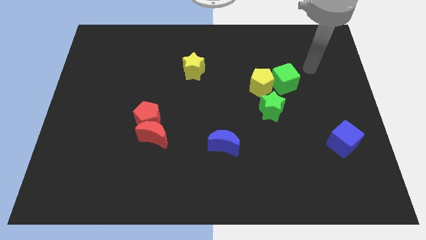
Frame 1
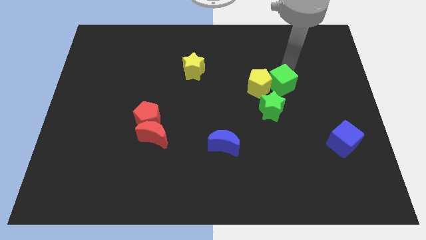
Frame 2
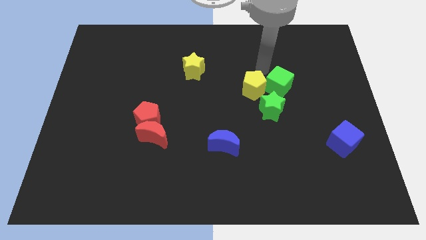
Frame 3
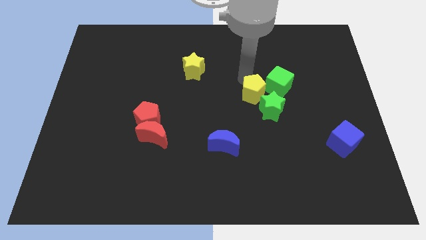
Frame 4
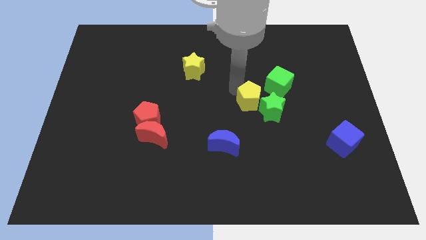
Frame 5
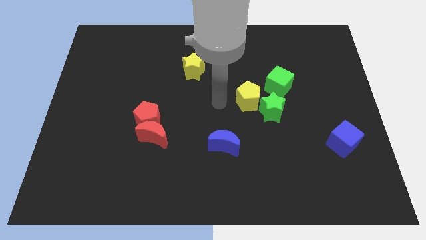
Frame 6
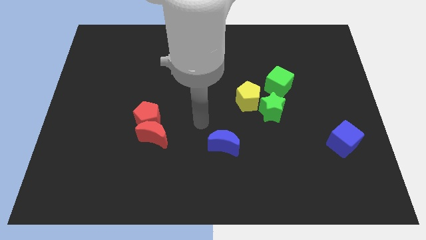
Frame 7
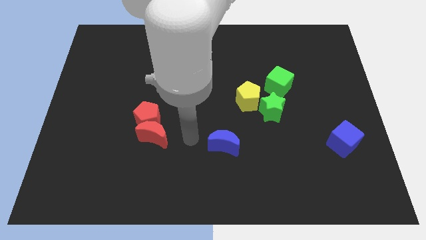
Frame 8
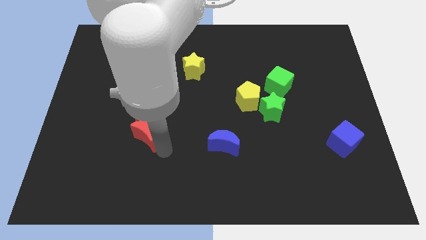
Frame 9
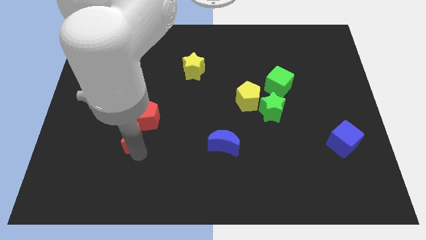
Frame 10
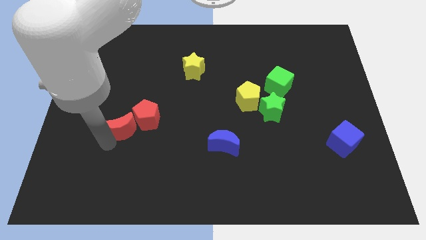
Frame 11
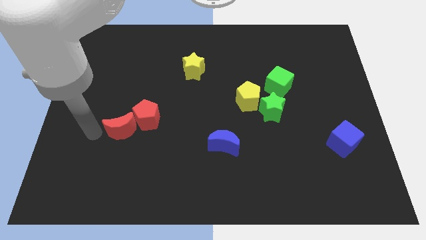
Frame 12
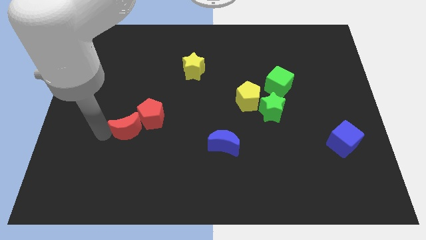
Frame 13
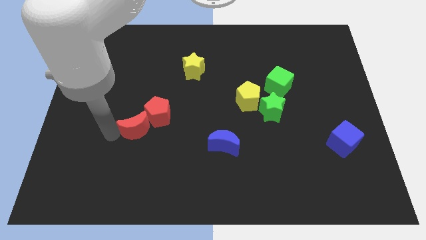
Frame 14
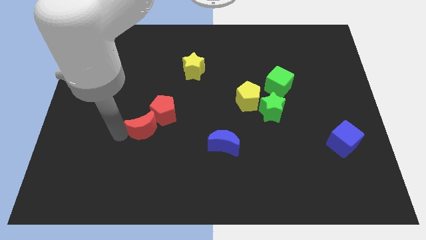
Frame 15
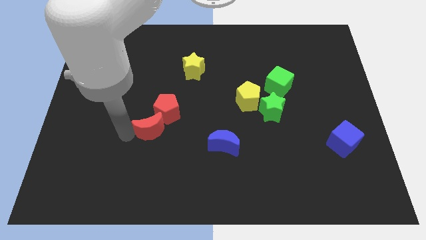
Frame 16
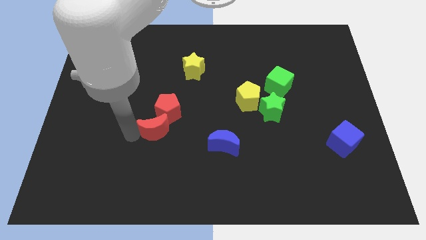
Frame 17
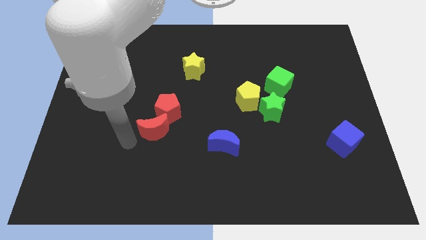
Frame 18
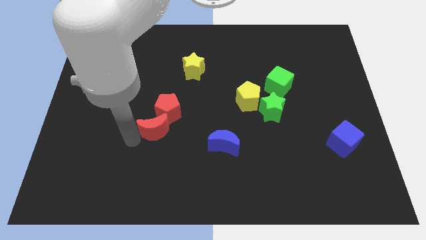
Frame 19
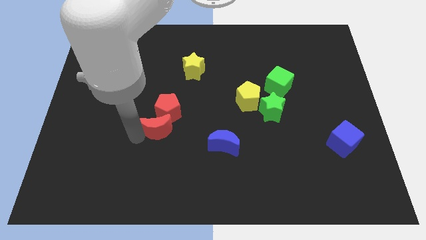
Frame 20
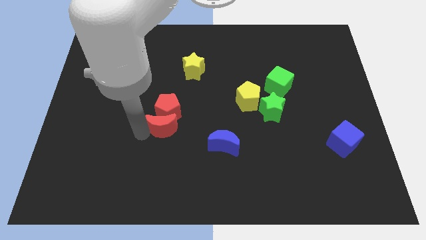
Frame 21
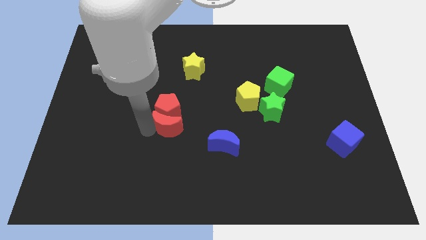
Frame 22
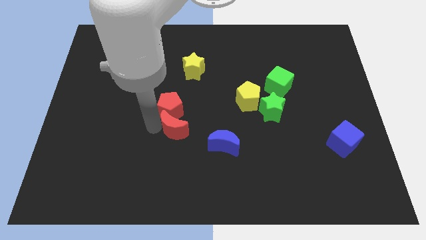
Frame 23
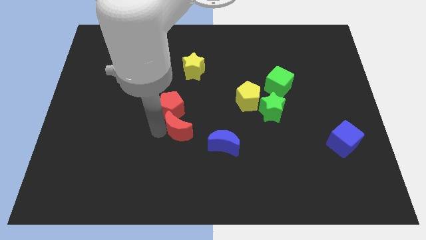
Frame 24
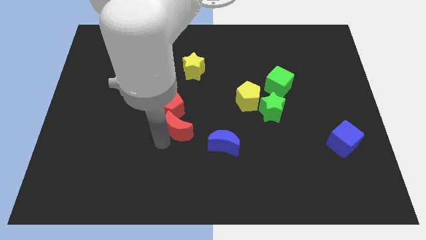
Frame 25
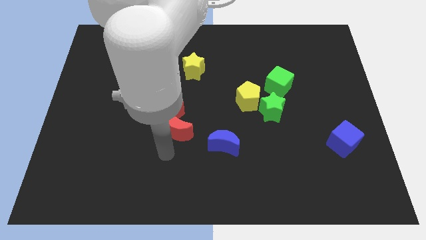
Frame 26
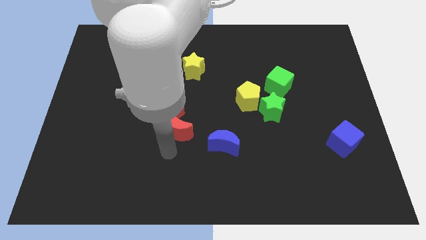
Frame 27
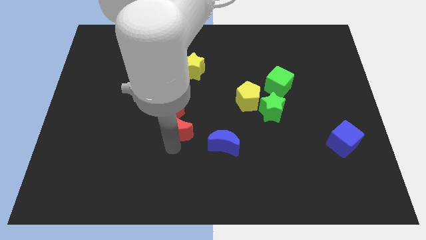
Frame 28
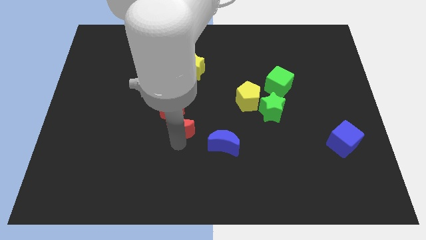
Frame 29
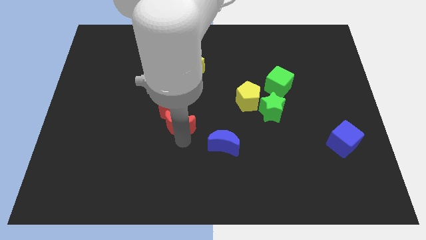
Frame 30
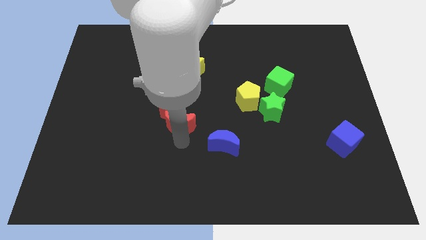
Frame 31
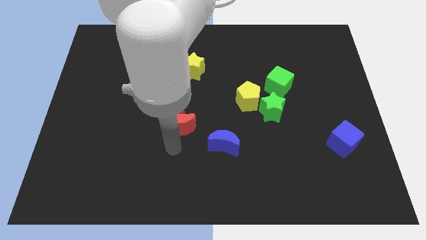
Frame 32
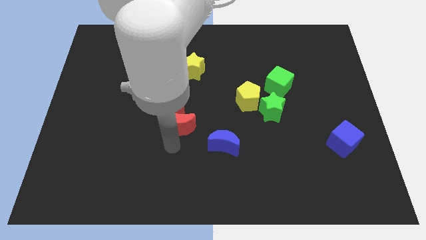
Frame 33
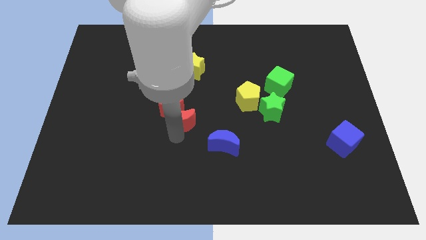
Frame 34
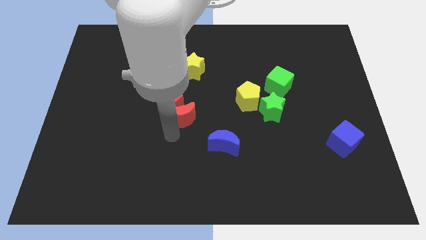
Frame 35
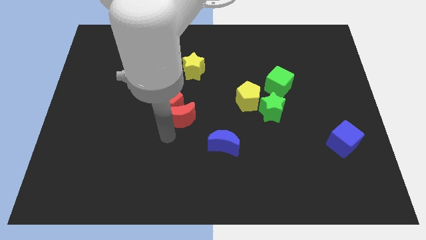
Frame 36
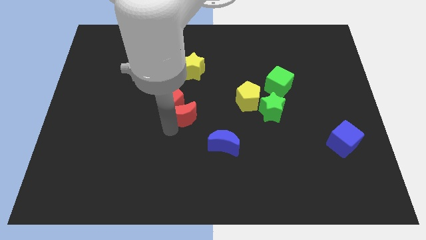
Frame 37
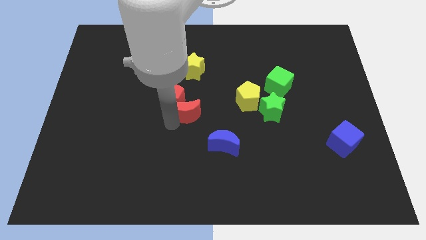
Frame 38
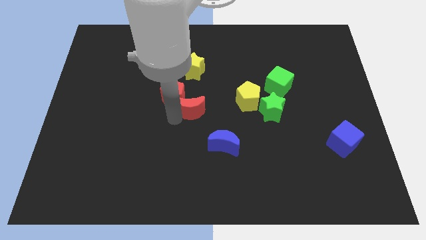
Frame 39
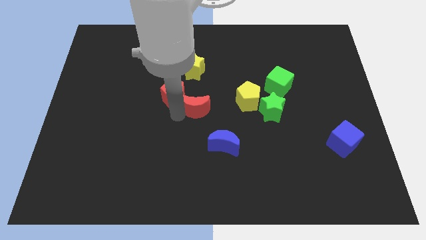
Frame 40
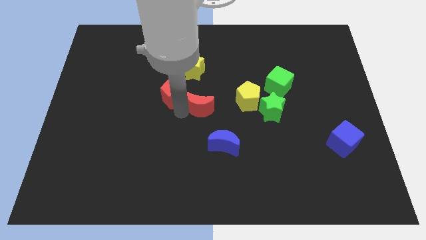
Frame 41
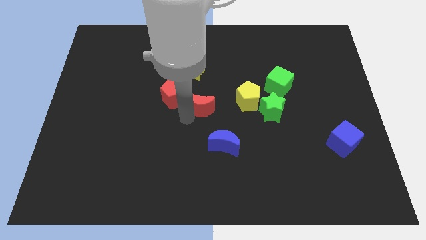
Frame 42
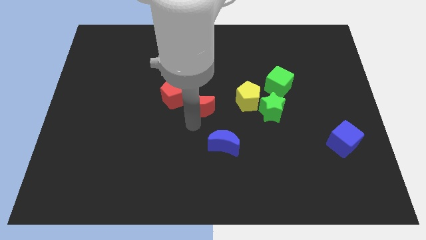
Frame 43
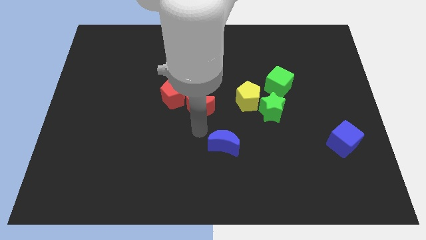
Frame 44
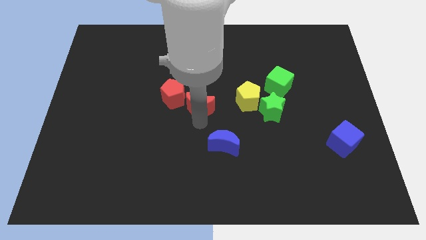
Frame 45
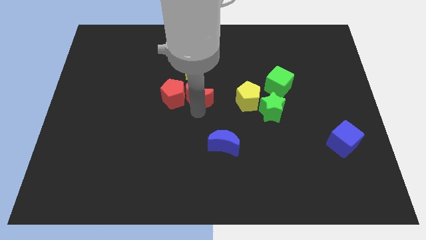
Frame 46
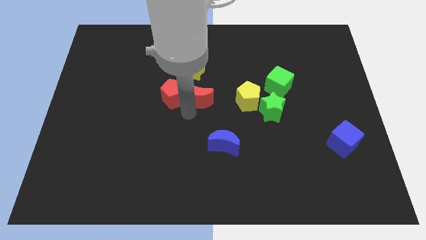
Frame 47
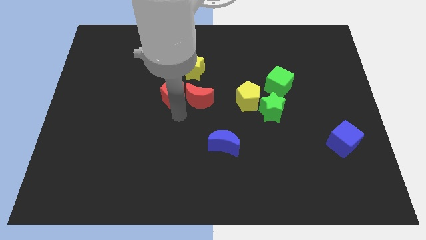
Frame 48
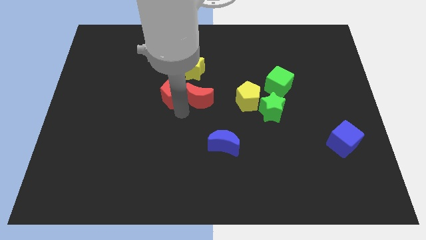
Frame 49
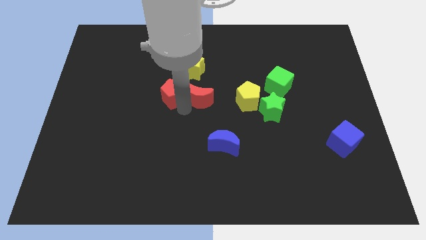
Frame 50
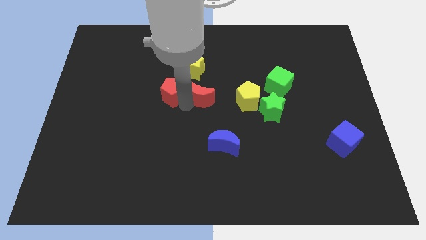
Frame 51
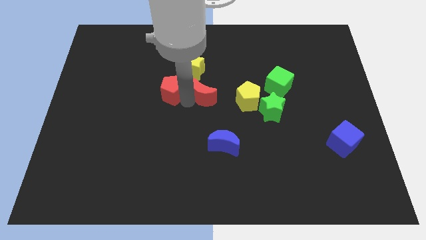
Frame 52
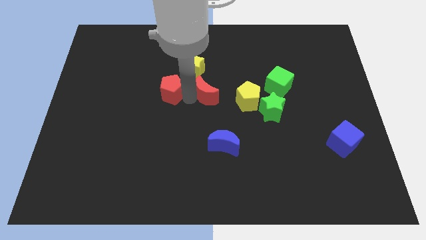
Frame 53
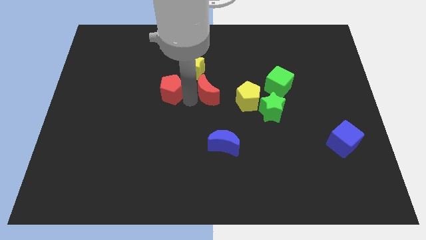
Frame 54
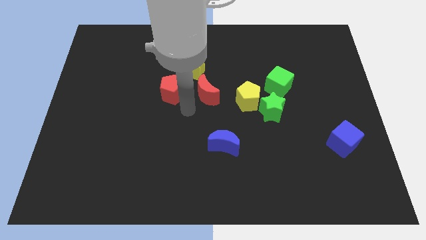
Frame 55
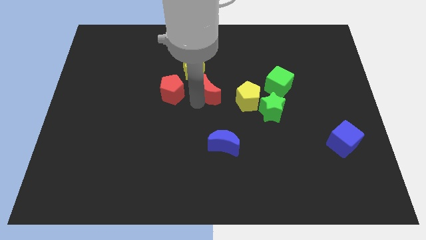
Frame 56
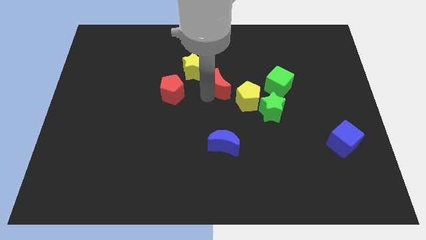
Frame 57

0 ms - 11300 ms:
slide the red moon upwards and right diagonally

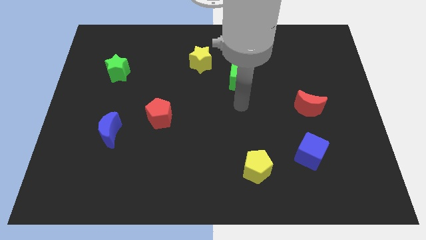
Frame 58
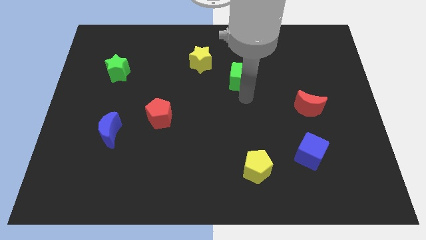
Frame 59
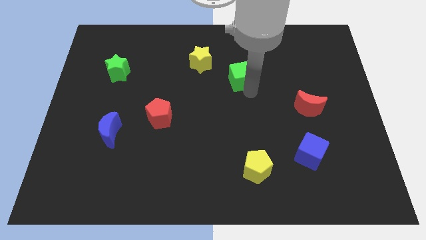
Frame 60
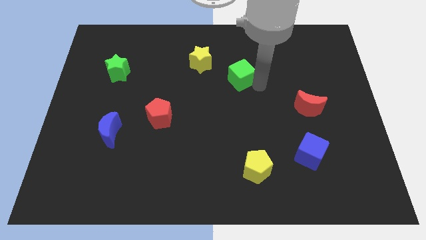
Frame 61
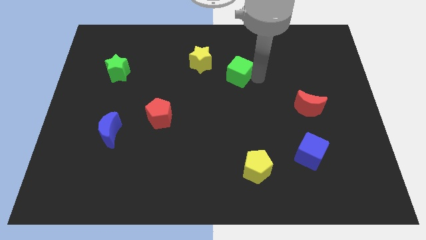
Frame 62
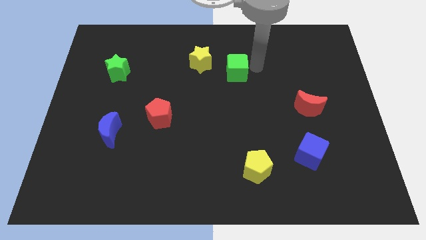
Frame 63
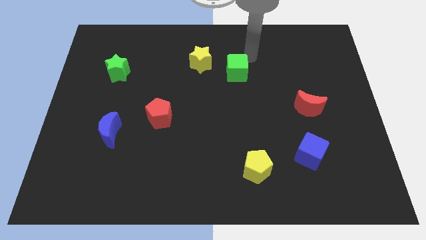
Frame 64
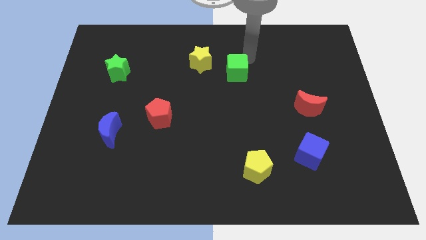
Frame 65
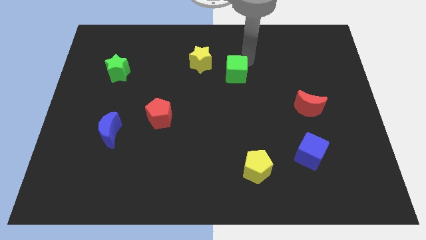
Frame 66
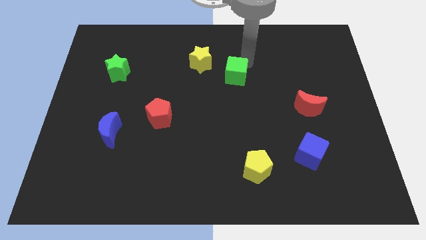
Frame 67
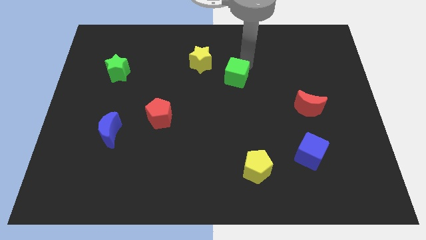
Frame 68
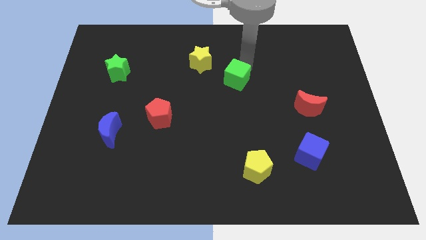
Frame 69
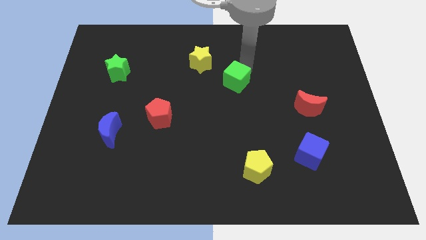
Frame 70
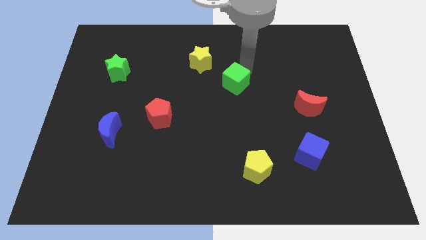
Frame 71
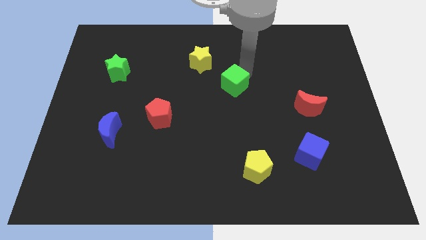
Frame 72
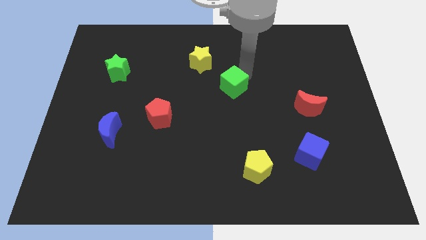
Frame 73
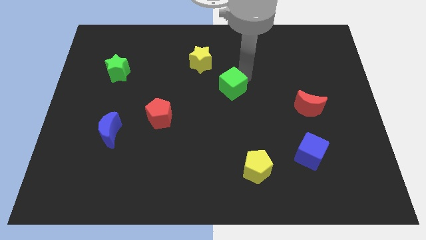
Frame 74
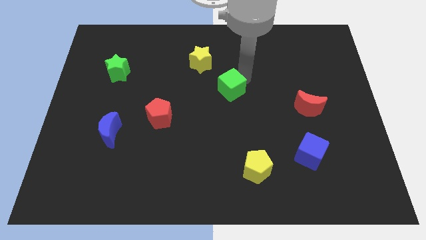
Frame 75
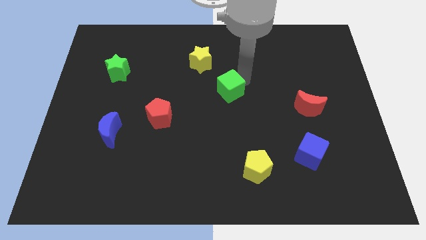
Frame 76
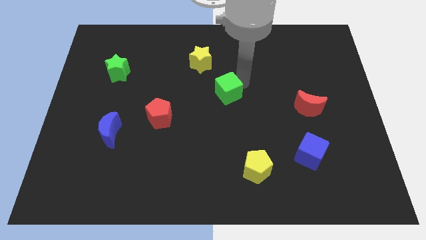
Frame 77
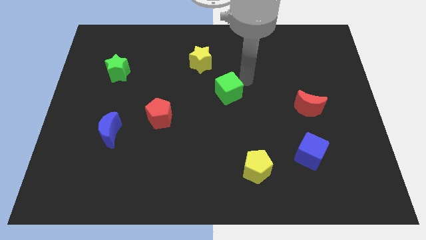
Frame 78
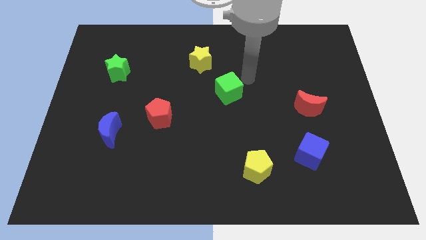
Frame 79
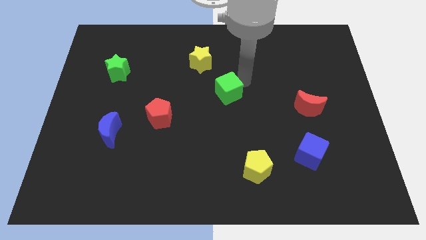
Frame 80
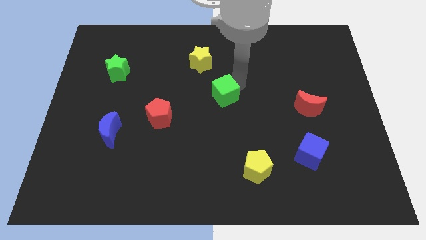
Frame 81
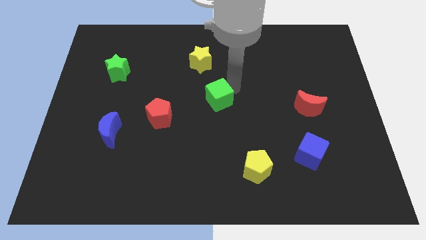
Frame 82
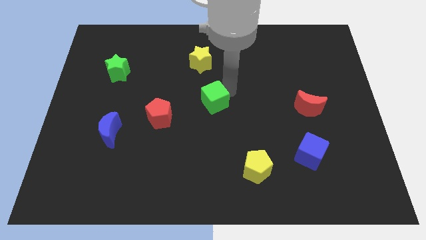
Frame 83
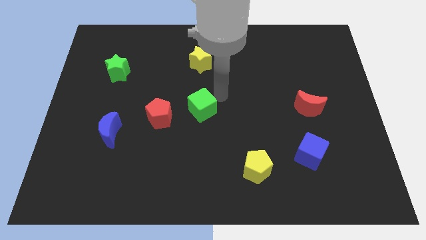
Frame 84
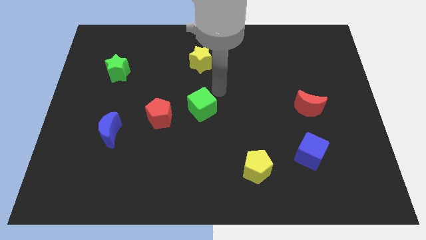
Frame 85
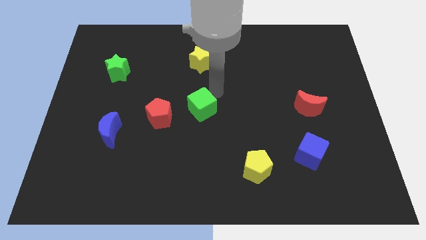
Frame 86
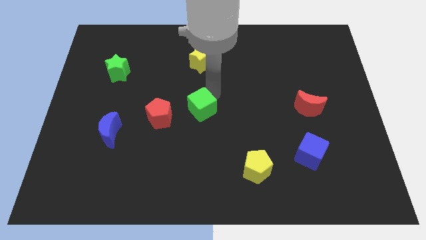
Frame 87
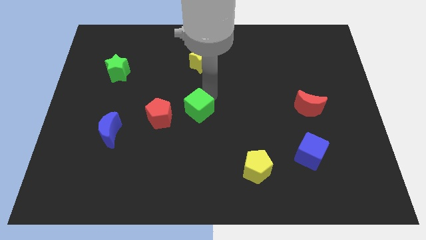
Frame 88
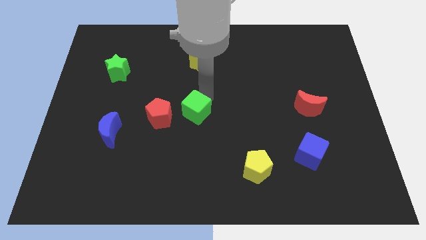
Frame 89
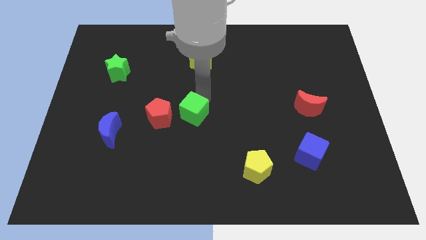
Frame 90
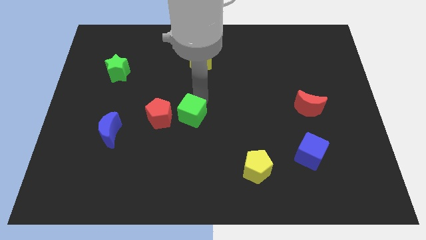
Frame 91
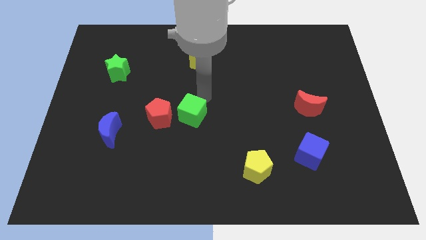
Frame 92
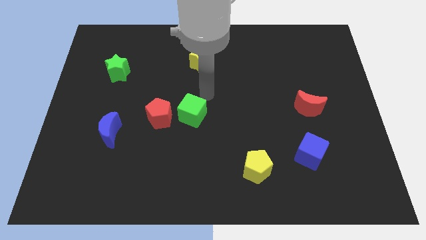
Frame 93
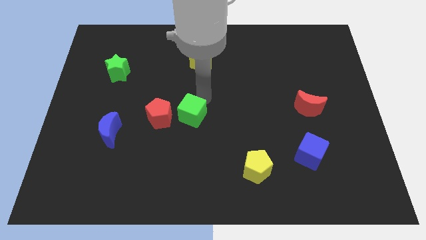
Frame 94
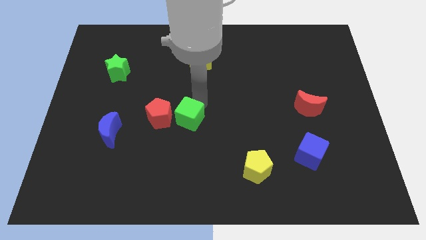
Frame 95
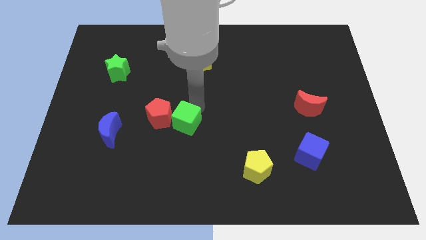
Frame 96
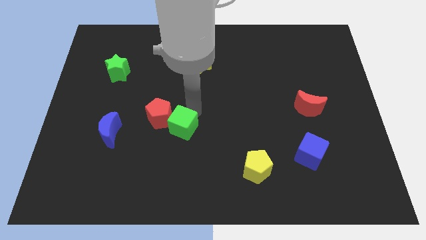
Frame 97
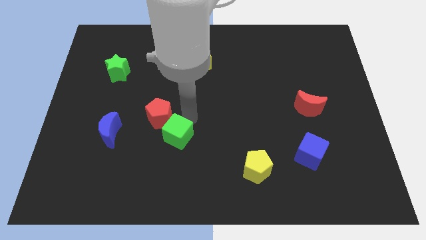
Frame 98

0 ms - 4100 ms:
slide the green cube down and then left
